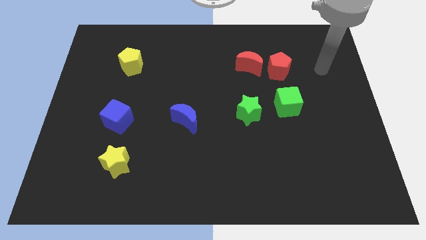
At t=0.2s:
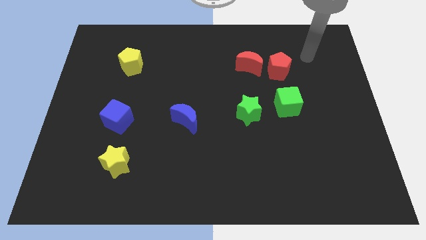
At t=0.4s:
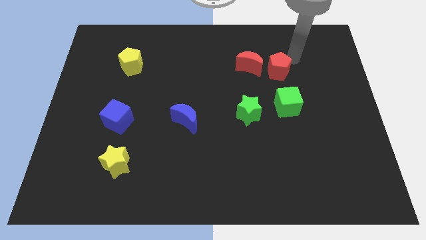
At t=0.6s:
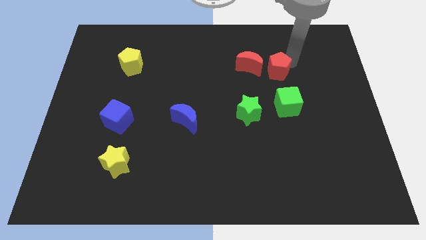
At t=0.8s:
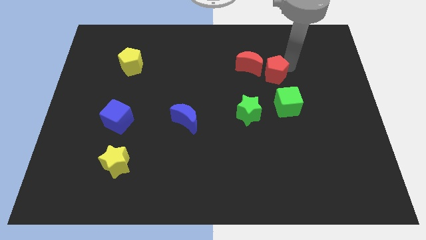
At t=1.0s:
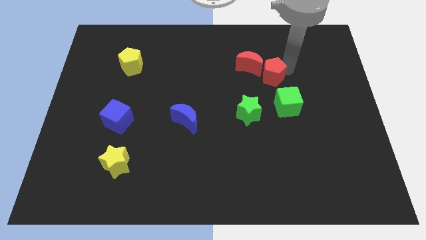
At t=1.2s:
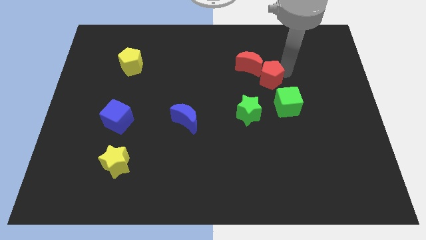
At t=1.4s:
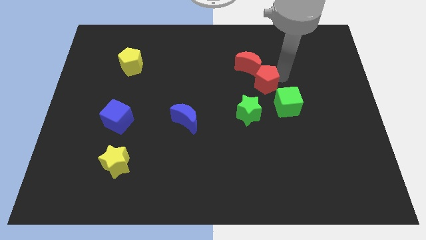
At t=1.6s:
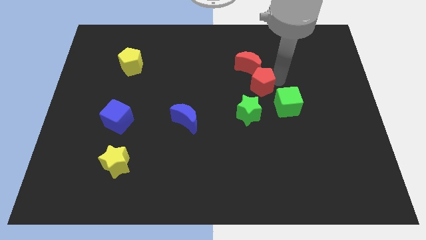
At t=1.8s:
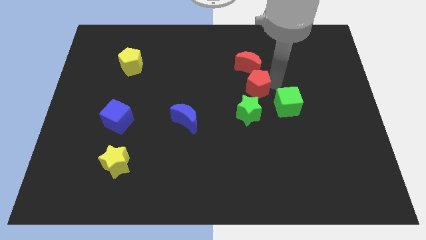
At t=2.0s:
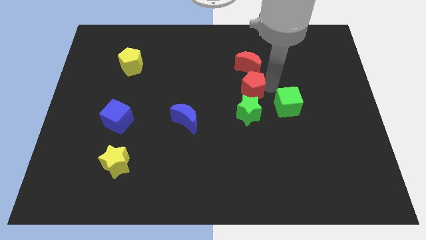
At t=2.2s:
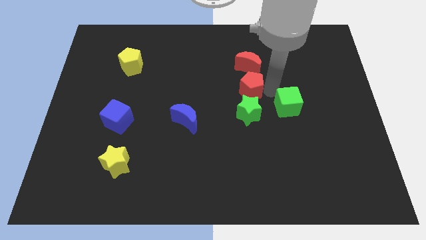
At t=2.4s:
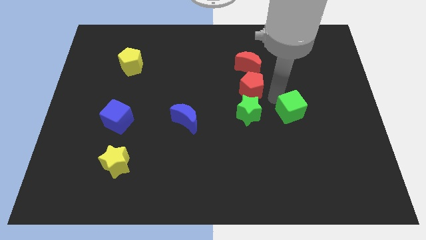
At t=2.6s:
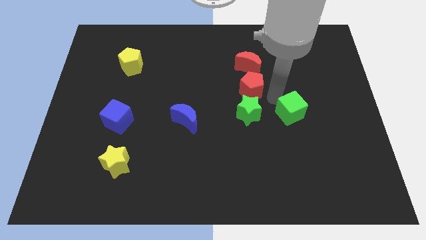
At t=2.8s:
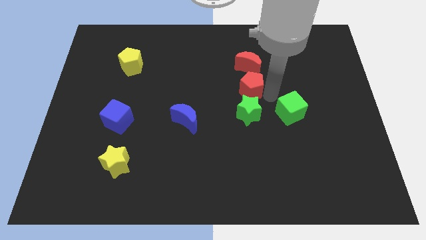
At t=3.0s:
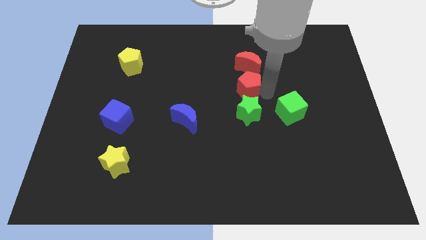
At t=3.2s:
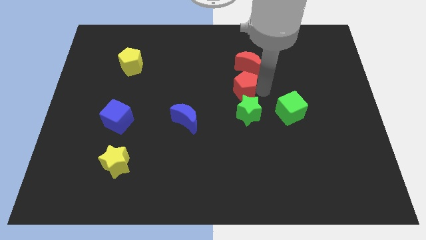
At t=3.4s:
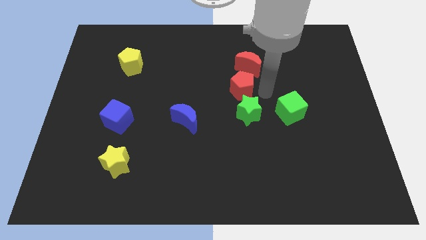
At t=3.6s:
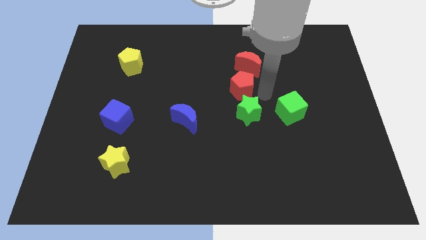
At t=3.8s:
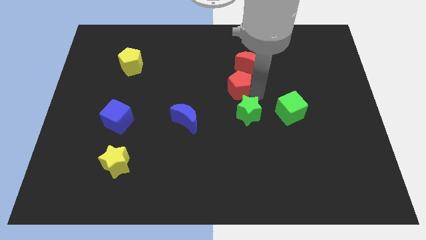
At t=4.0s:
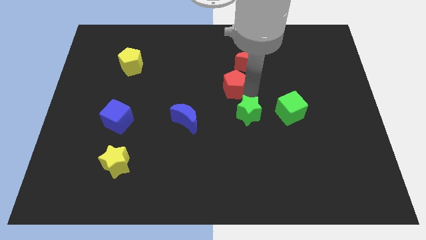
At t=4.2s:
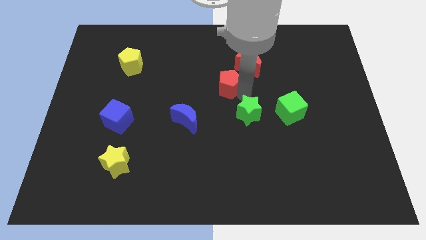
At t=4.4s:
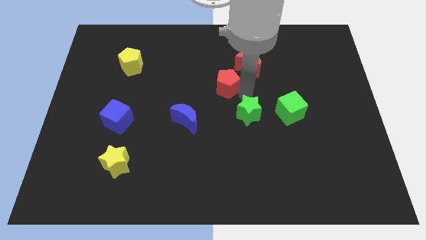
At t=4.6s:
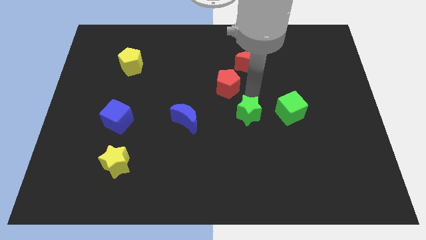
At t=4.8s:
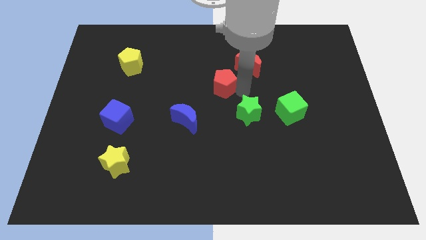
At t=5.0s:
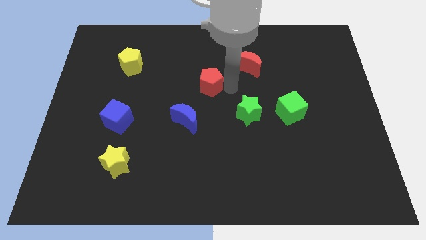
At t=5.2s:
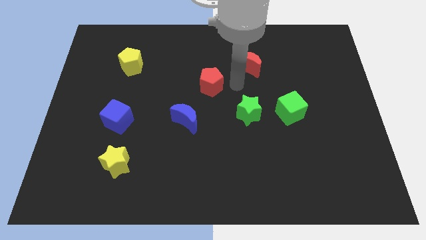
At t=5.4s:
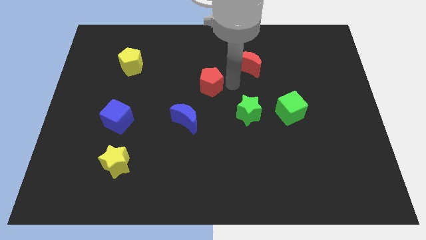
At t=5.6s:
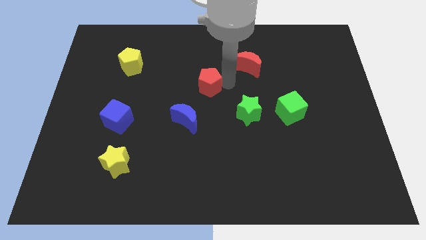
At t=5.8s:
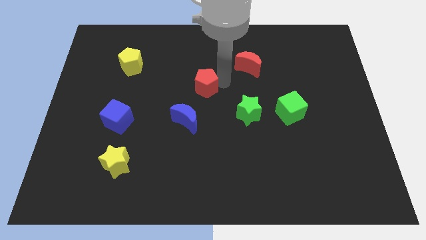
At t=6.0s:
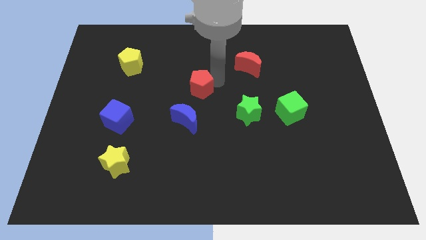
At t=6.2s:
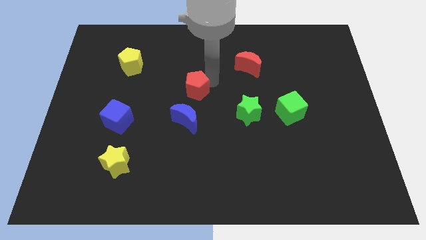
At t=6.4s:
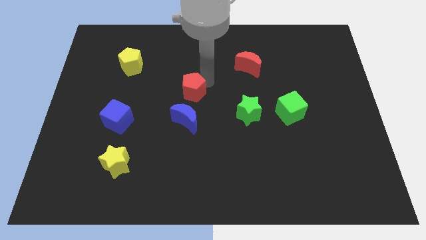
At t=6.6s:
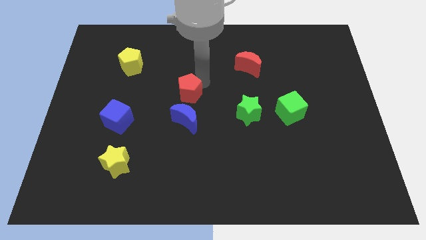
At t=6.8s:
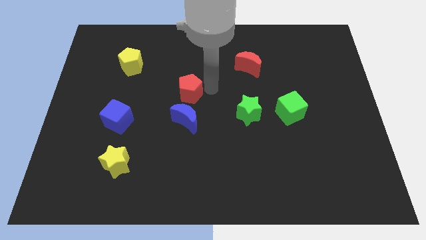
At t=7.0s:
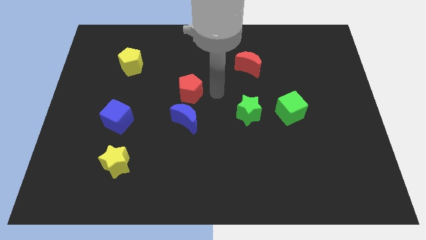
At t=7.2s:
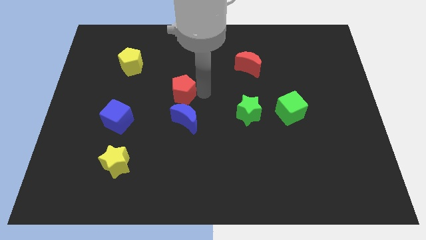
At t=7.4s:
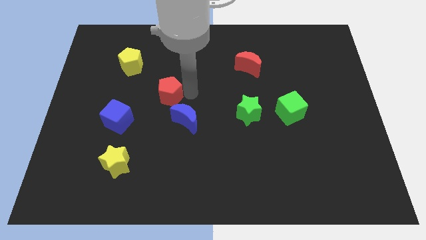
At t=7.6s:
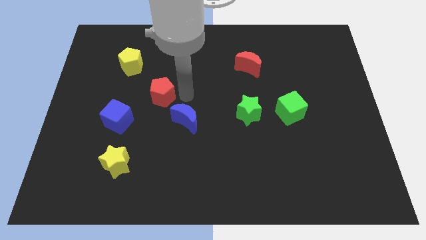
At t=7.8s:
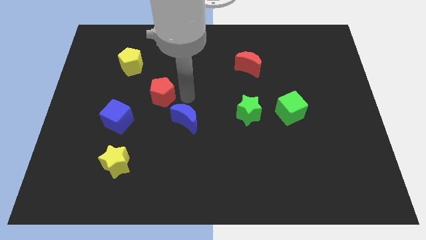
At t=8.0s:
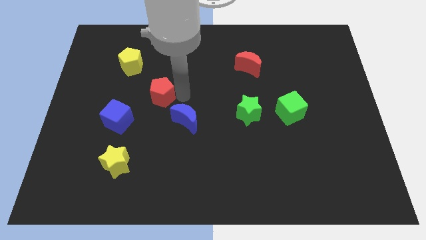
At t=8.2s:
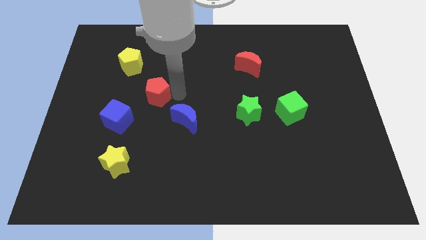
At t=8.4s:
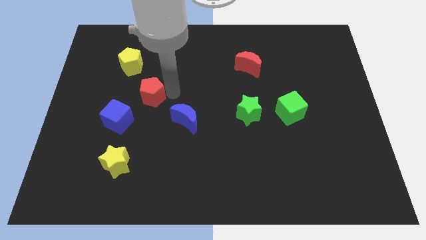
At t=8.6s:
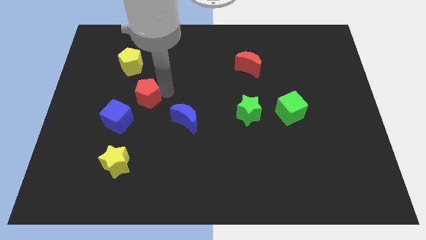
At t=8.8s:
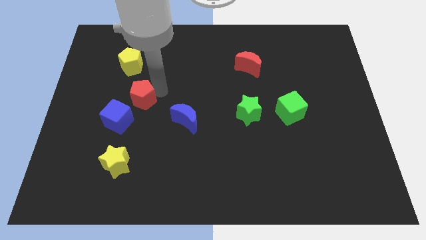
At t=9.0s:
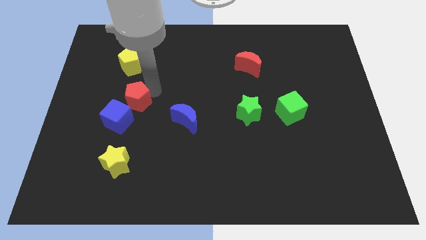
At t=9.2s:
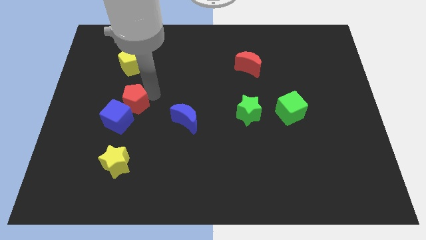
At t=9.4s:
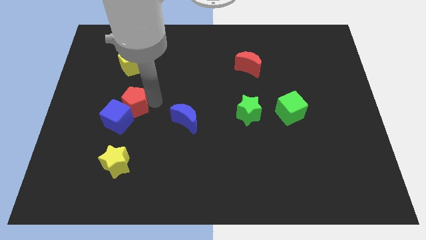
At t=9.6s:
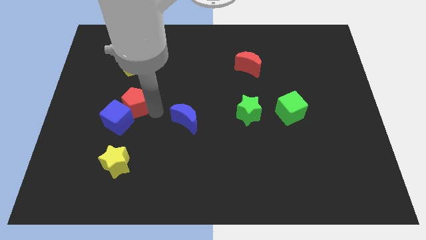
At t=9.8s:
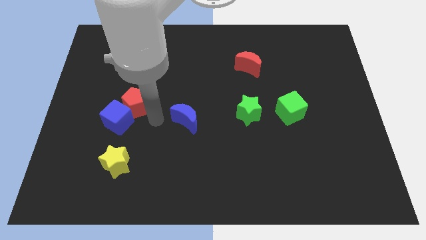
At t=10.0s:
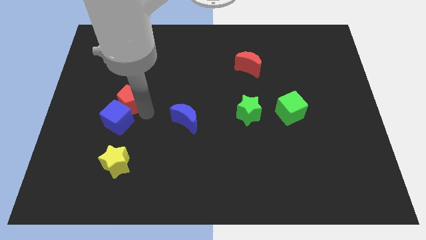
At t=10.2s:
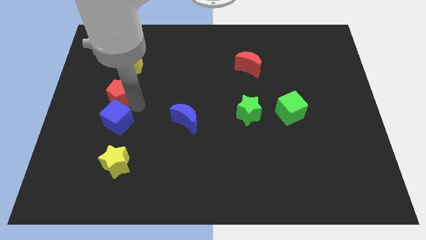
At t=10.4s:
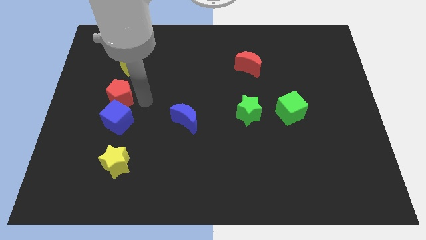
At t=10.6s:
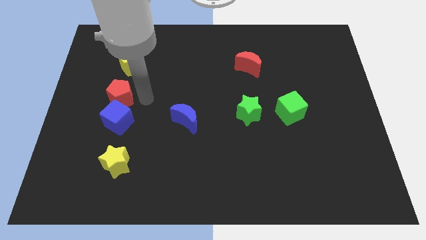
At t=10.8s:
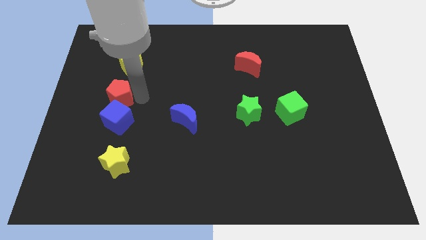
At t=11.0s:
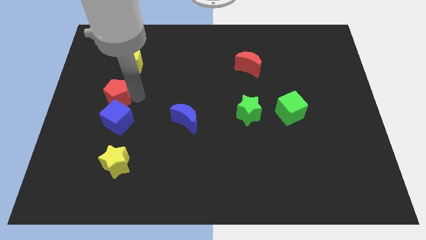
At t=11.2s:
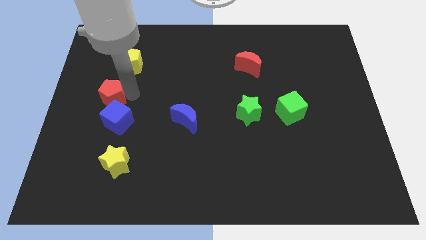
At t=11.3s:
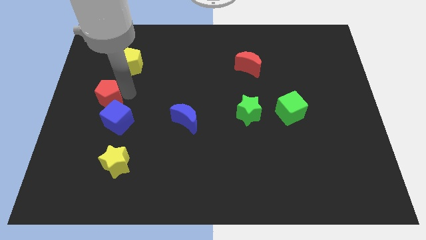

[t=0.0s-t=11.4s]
slide the red pentagon to the center left

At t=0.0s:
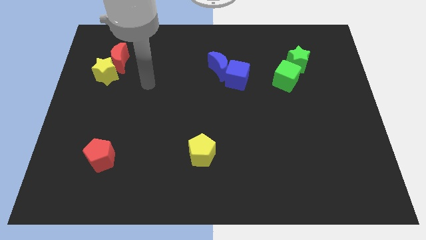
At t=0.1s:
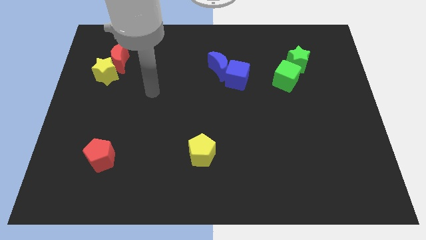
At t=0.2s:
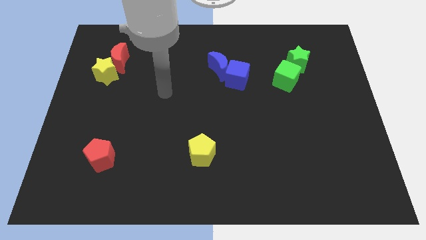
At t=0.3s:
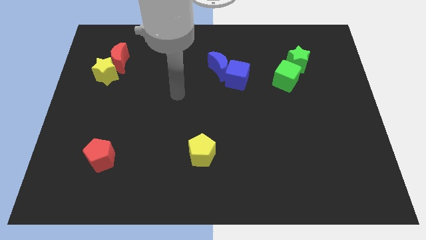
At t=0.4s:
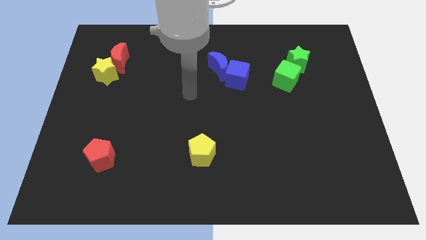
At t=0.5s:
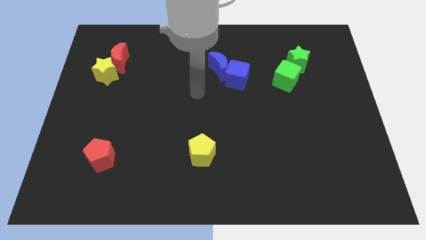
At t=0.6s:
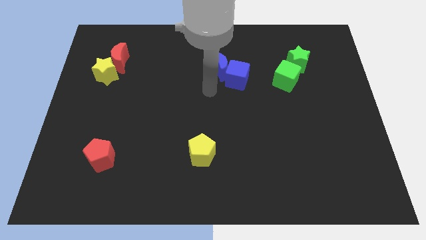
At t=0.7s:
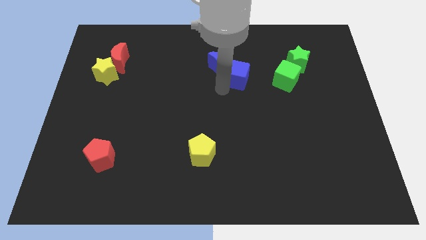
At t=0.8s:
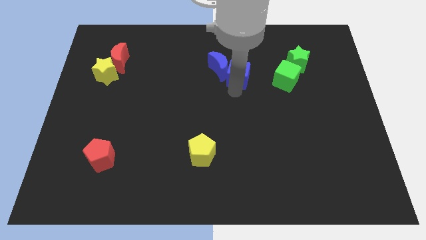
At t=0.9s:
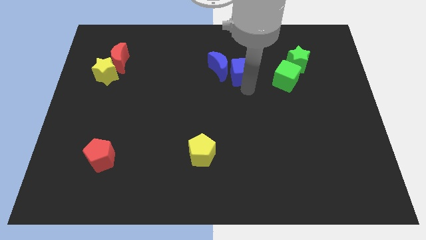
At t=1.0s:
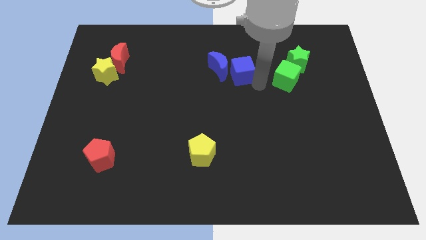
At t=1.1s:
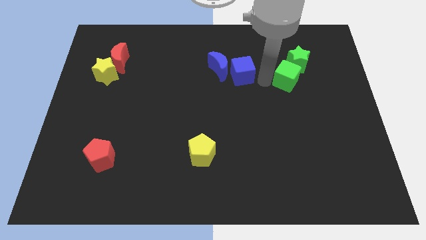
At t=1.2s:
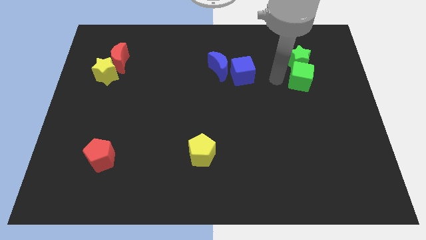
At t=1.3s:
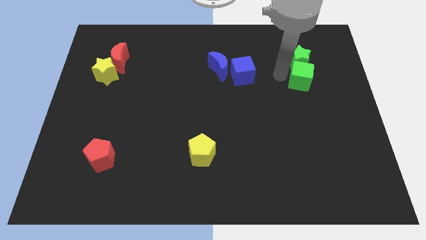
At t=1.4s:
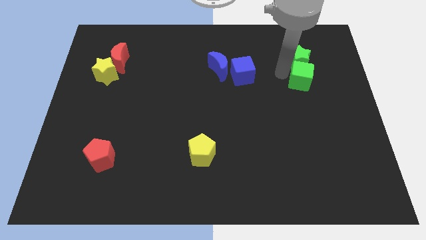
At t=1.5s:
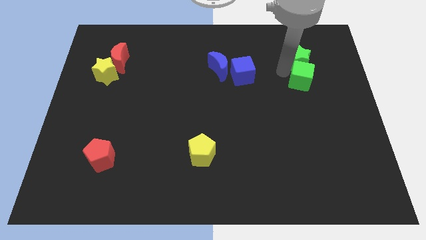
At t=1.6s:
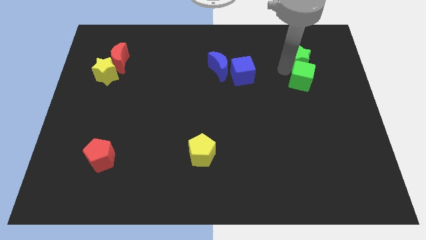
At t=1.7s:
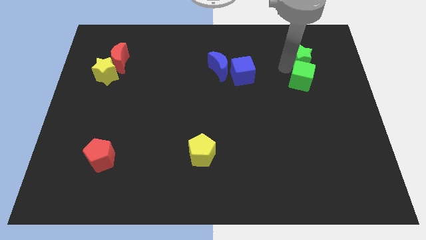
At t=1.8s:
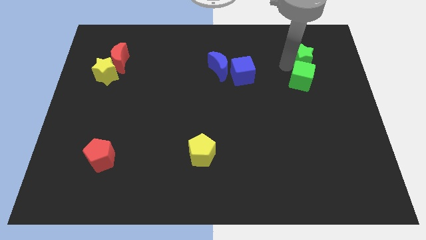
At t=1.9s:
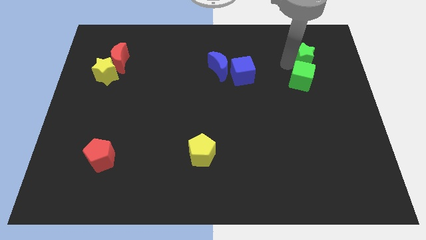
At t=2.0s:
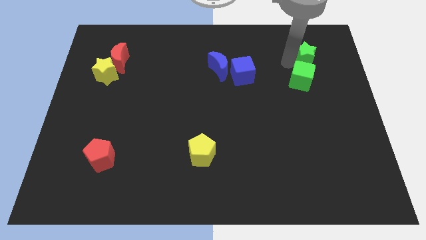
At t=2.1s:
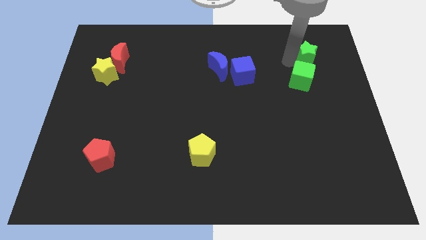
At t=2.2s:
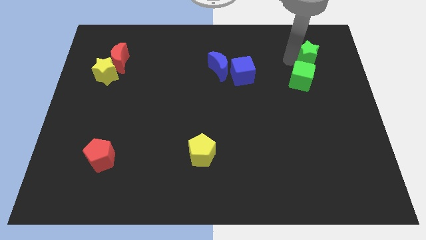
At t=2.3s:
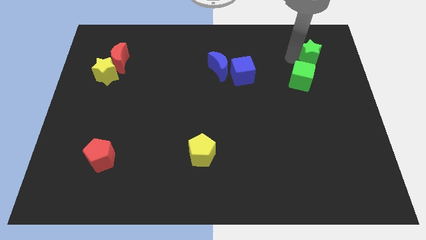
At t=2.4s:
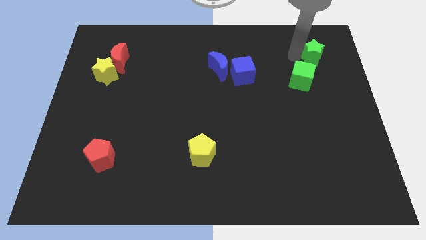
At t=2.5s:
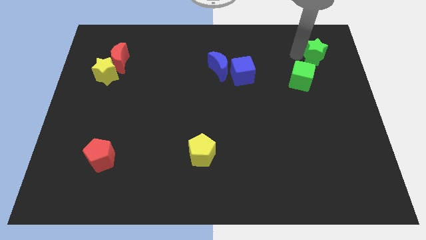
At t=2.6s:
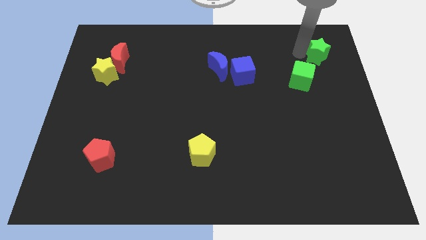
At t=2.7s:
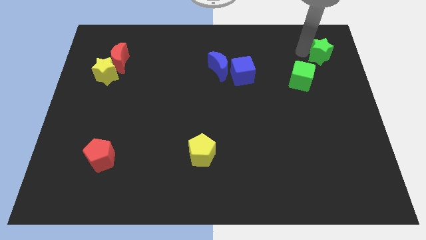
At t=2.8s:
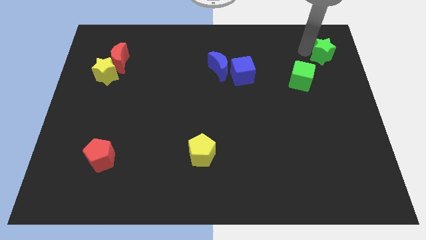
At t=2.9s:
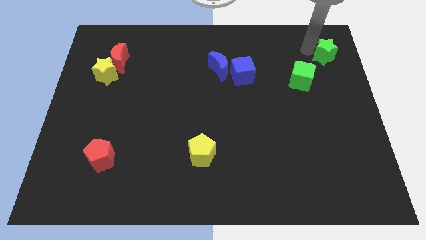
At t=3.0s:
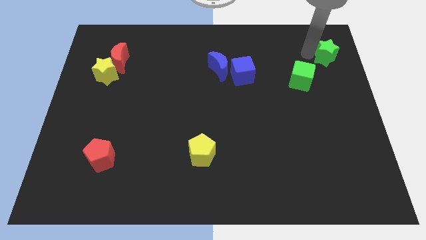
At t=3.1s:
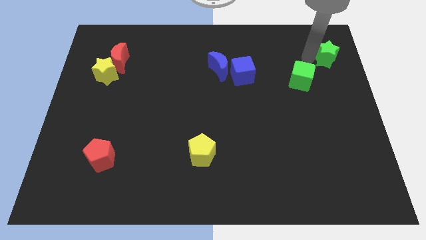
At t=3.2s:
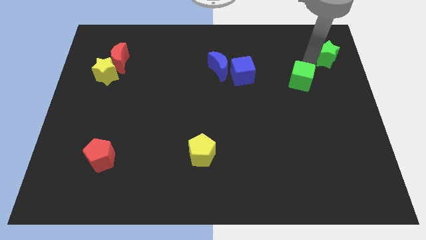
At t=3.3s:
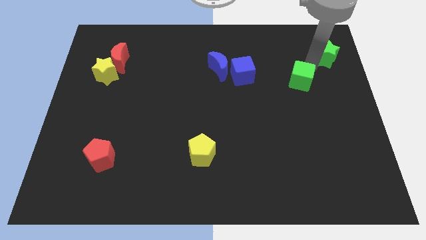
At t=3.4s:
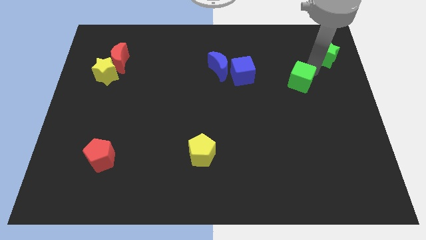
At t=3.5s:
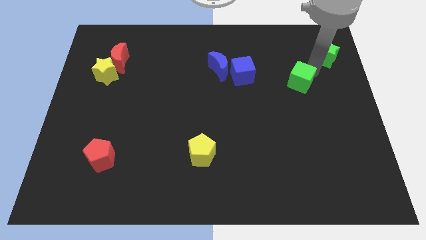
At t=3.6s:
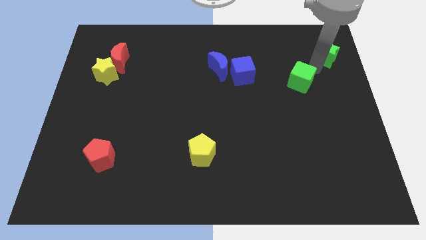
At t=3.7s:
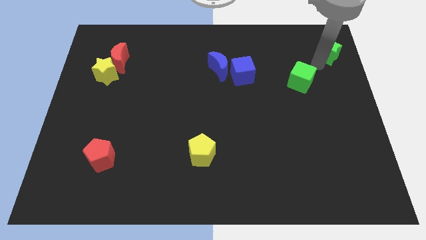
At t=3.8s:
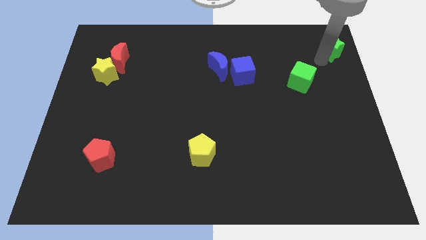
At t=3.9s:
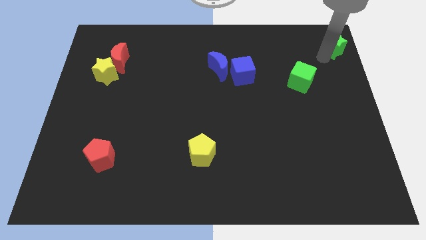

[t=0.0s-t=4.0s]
put the green star to the upper right corner
